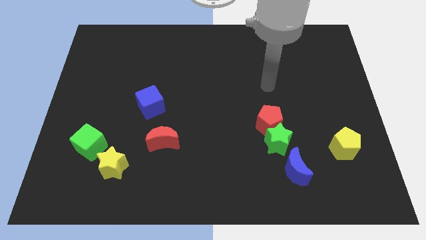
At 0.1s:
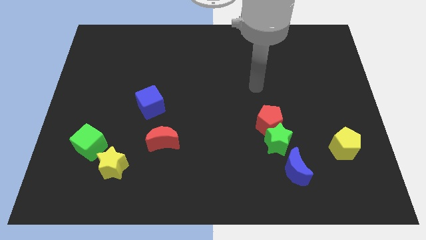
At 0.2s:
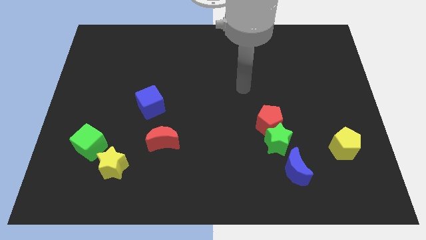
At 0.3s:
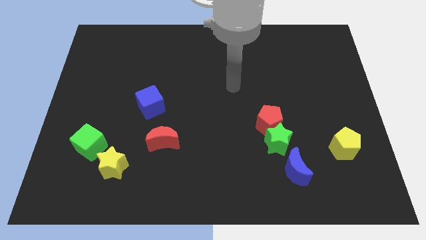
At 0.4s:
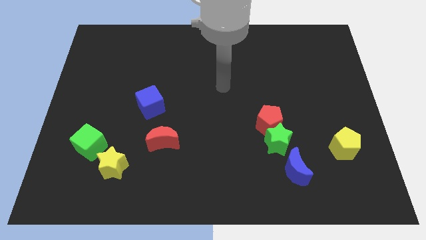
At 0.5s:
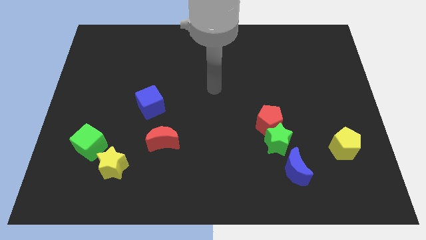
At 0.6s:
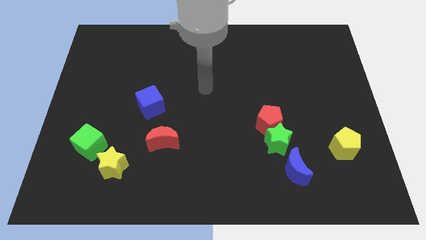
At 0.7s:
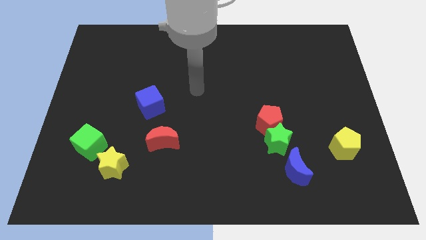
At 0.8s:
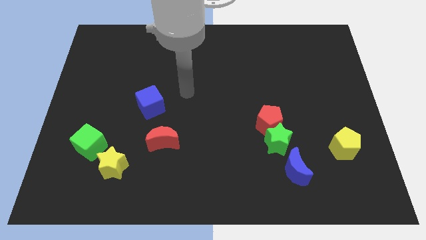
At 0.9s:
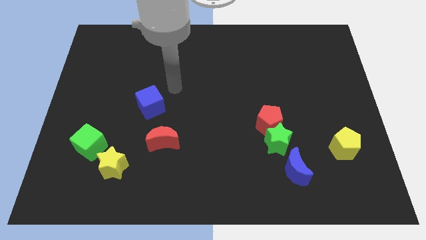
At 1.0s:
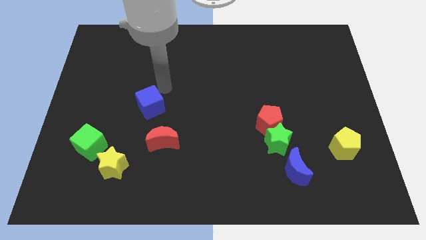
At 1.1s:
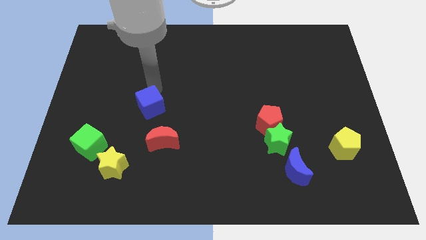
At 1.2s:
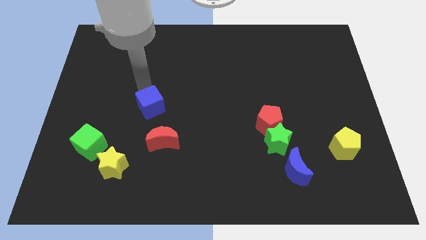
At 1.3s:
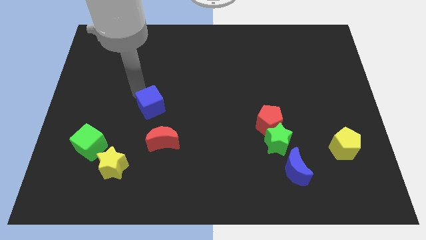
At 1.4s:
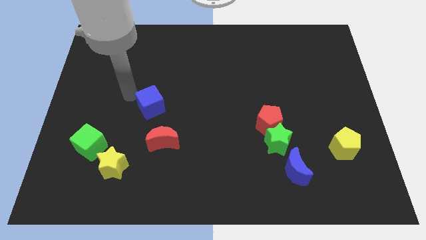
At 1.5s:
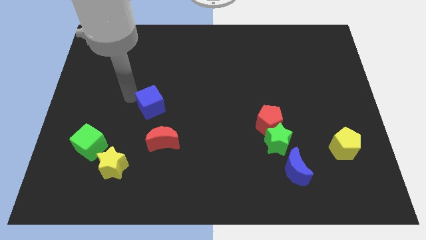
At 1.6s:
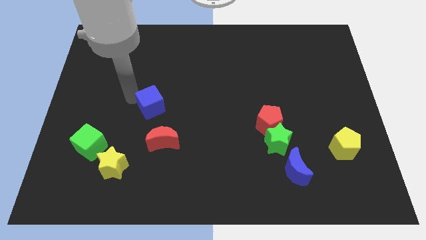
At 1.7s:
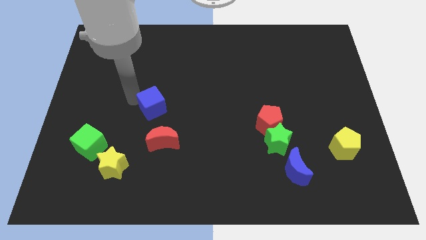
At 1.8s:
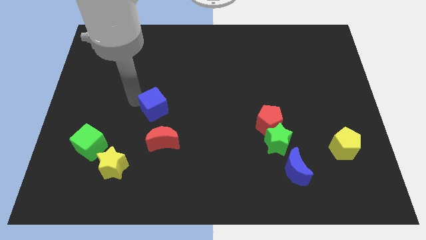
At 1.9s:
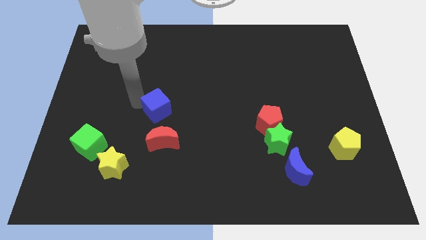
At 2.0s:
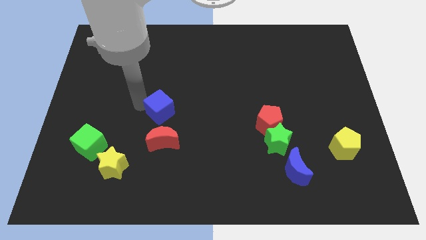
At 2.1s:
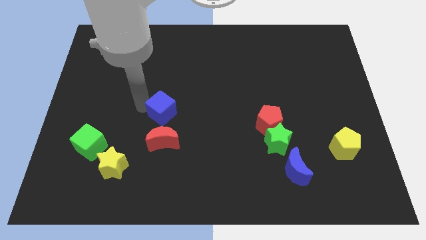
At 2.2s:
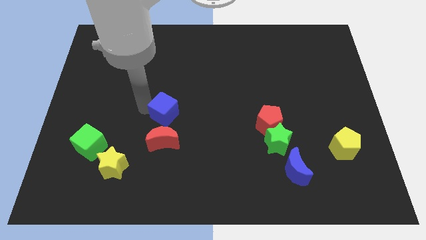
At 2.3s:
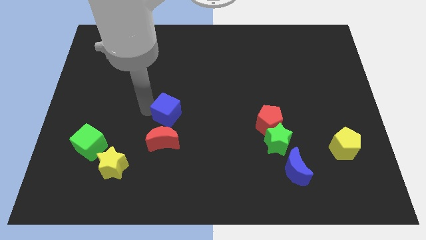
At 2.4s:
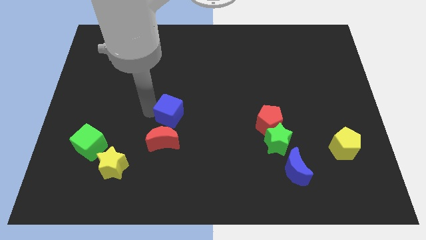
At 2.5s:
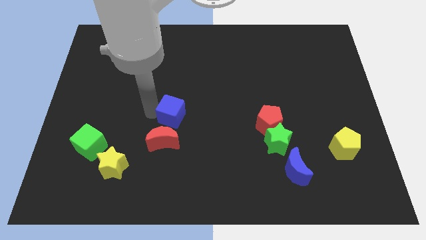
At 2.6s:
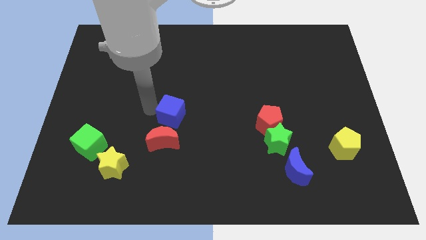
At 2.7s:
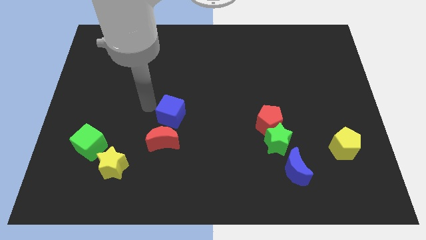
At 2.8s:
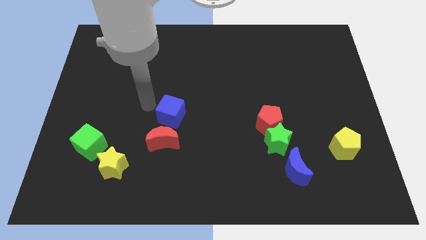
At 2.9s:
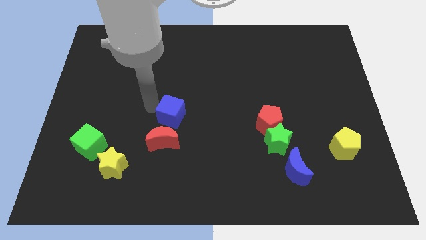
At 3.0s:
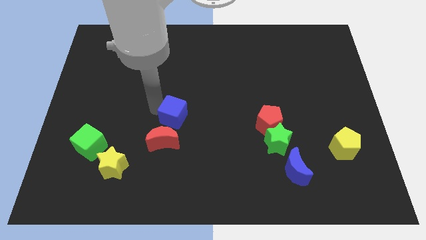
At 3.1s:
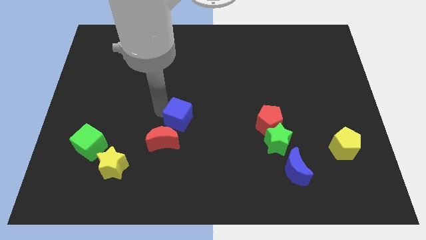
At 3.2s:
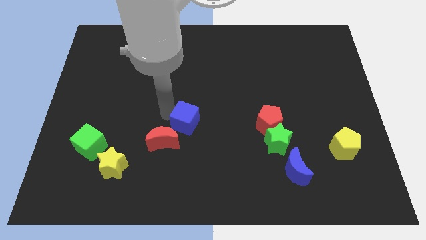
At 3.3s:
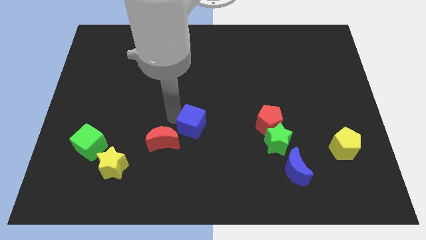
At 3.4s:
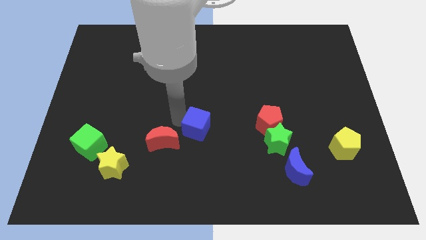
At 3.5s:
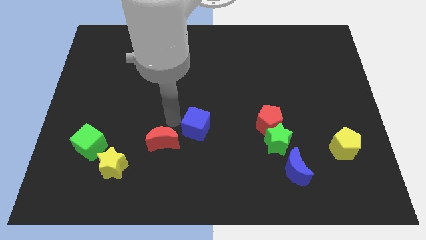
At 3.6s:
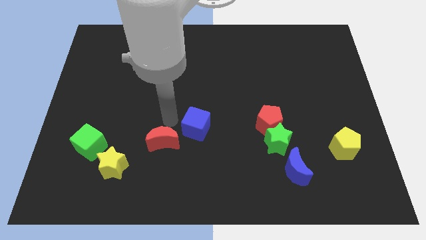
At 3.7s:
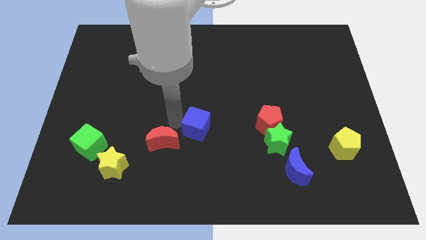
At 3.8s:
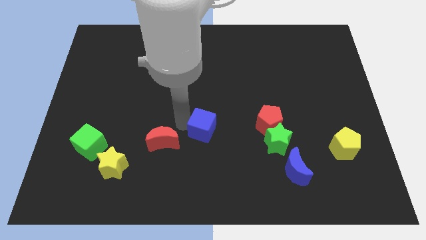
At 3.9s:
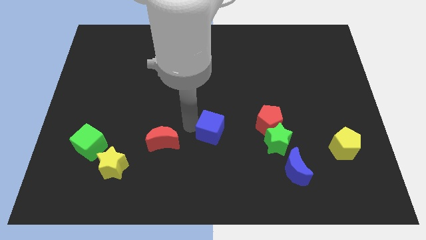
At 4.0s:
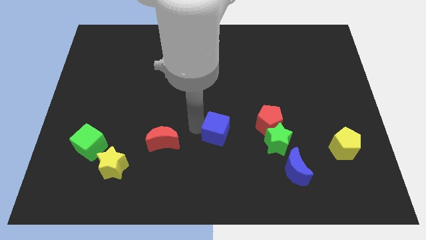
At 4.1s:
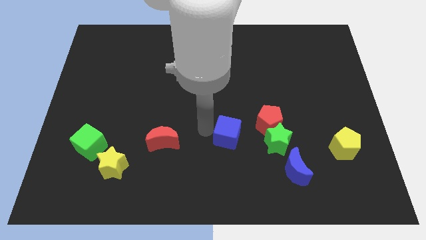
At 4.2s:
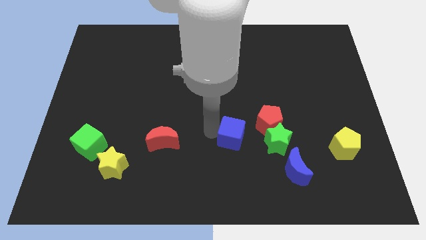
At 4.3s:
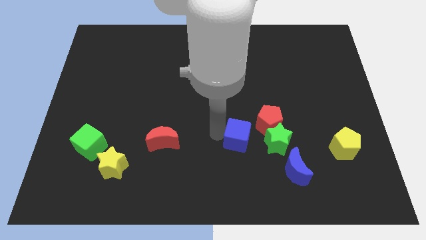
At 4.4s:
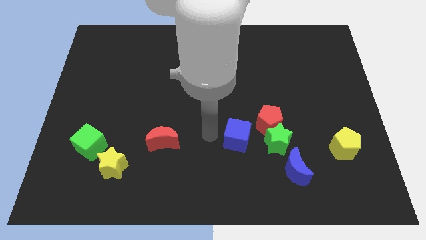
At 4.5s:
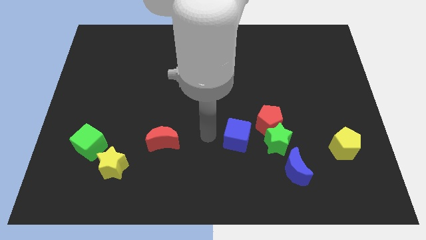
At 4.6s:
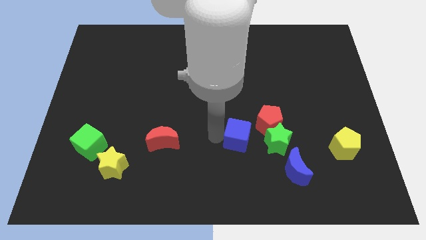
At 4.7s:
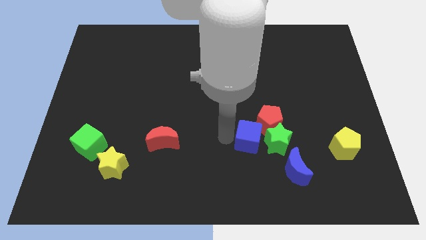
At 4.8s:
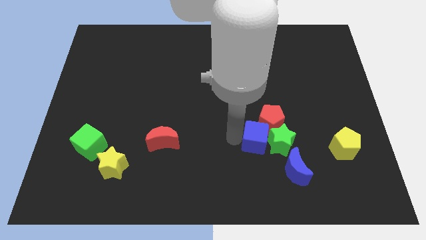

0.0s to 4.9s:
slide the blue cube towards the green star

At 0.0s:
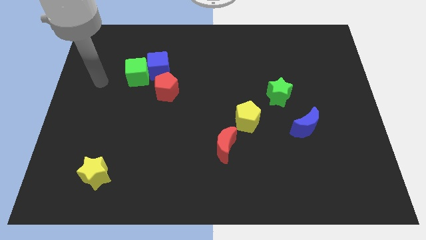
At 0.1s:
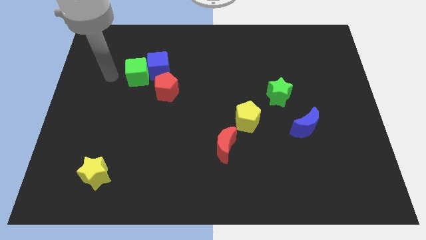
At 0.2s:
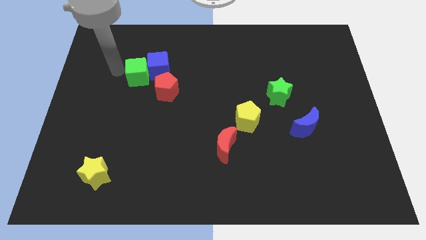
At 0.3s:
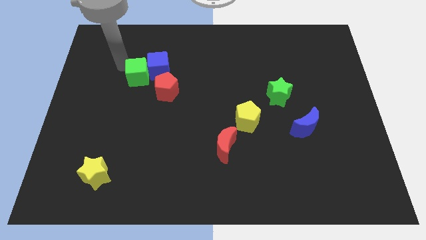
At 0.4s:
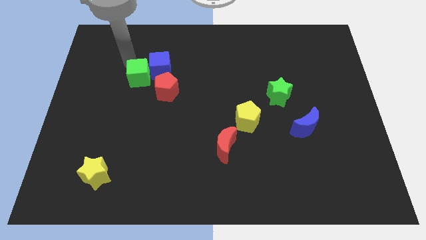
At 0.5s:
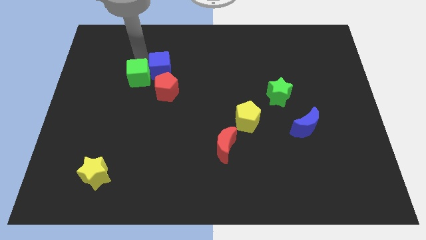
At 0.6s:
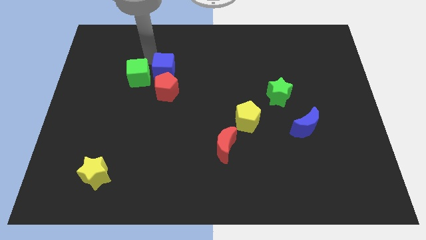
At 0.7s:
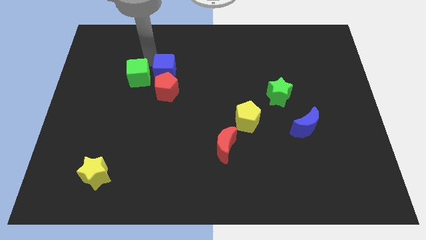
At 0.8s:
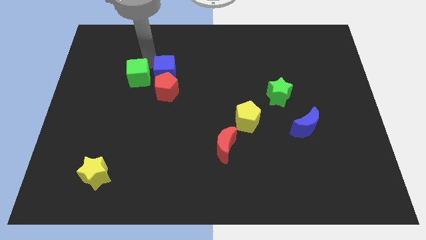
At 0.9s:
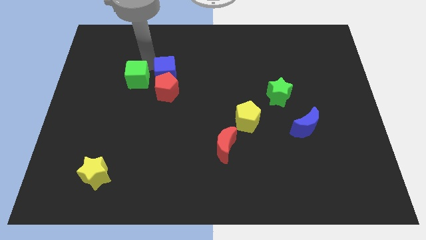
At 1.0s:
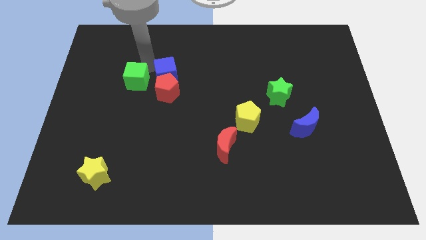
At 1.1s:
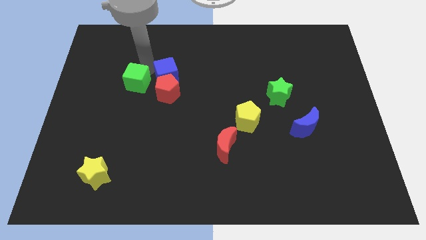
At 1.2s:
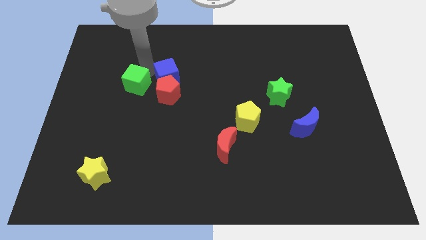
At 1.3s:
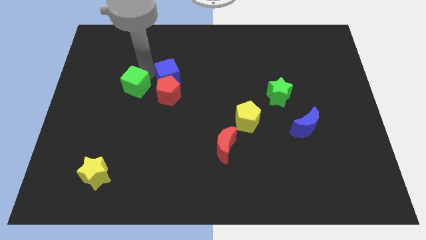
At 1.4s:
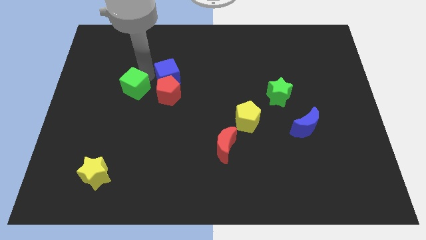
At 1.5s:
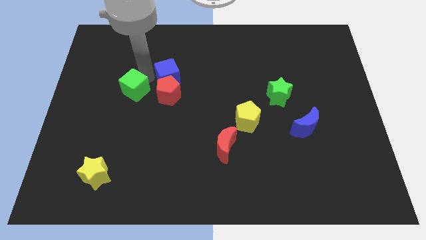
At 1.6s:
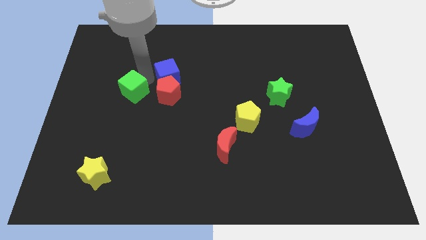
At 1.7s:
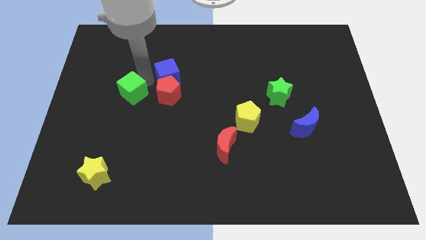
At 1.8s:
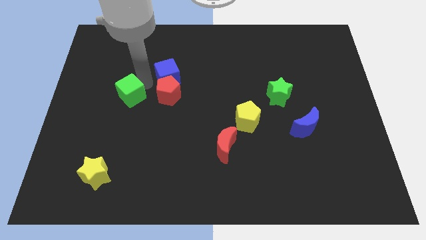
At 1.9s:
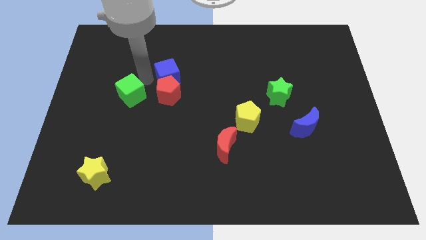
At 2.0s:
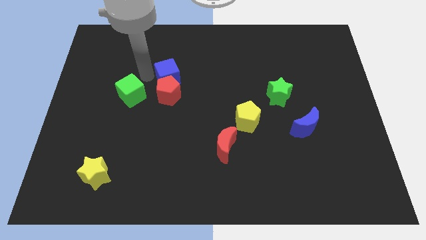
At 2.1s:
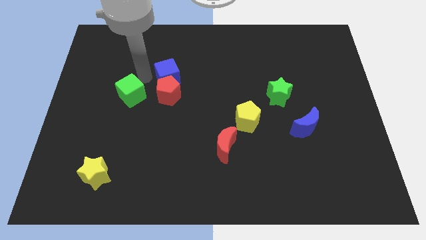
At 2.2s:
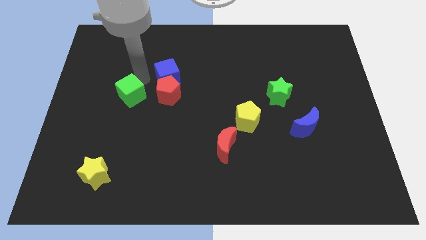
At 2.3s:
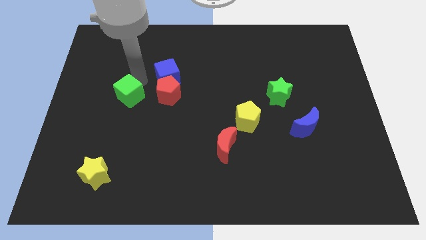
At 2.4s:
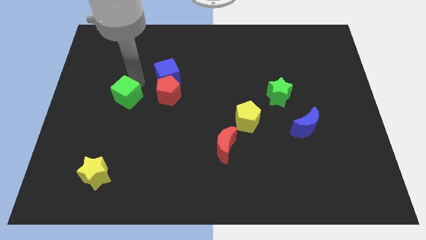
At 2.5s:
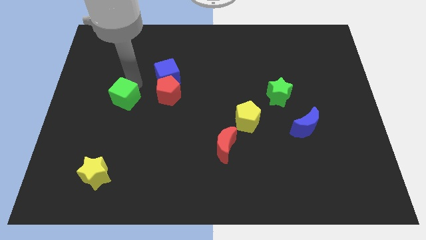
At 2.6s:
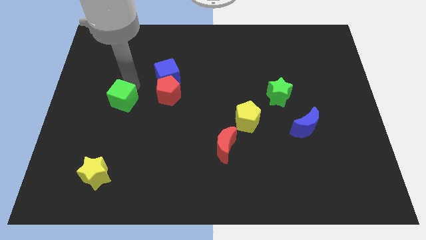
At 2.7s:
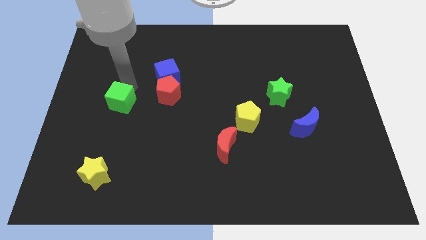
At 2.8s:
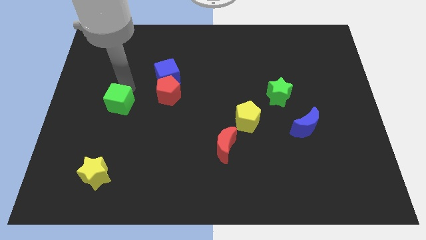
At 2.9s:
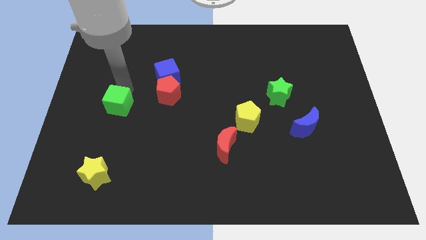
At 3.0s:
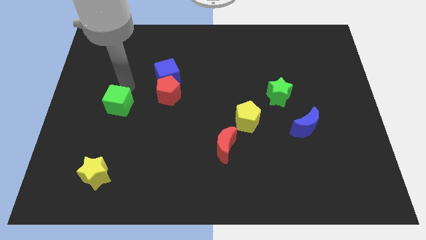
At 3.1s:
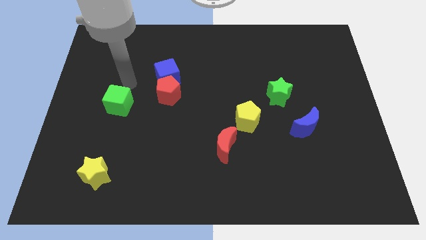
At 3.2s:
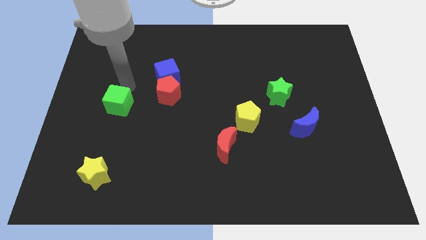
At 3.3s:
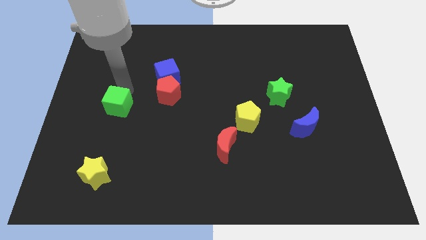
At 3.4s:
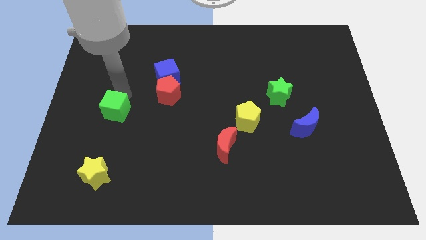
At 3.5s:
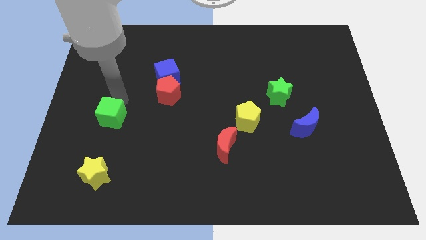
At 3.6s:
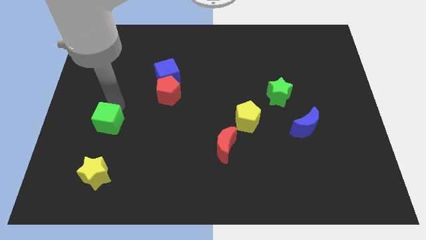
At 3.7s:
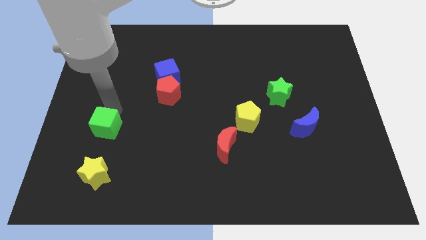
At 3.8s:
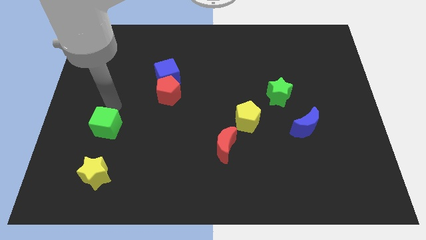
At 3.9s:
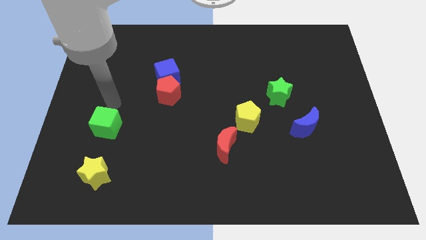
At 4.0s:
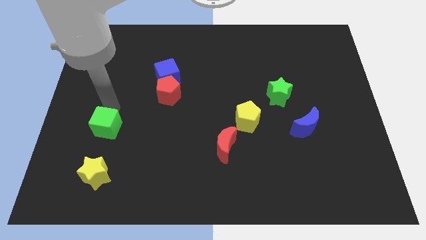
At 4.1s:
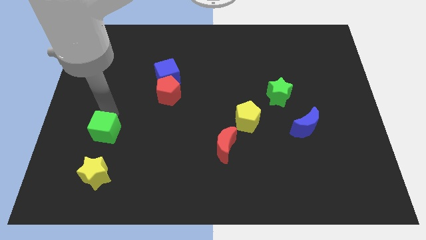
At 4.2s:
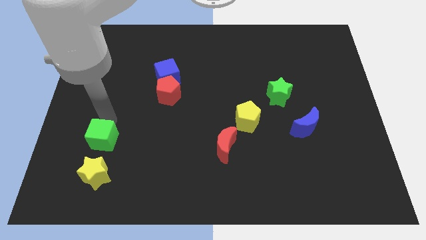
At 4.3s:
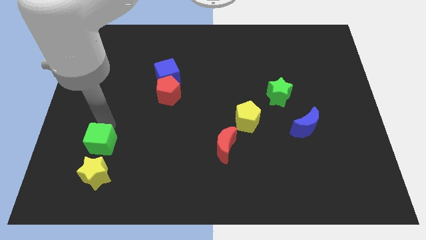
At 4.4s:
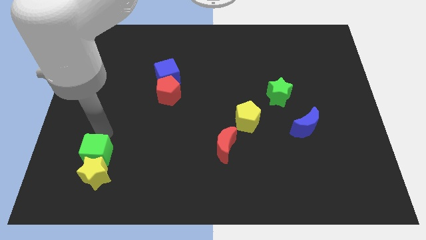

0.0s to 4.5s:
slide the green cube towards the yellow star
